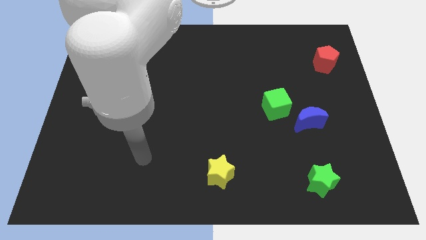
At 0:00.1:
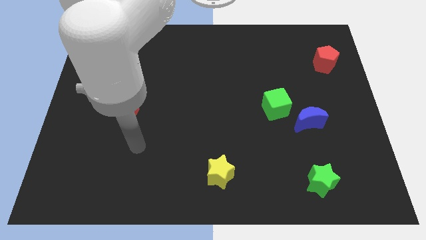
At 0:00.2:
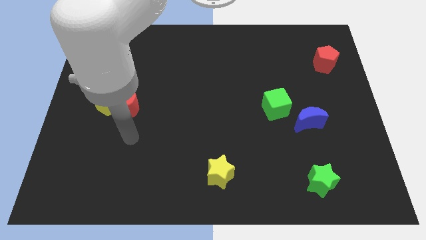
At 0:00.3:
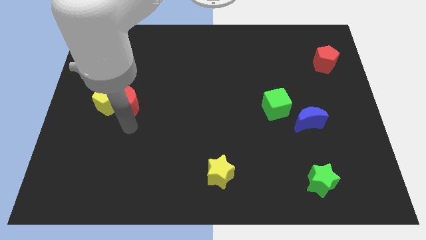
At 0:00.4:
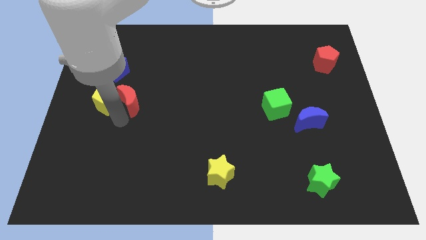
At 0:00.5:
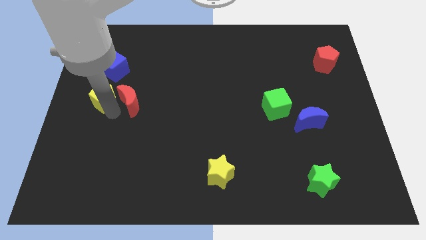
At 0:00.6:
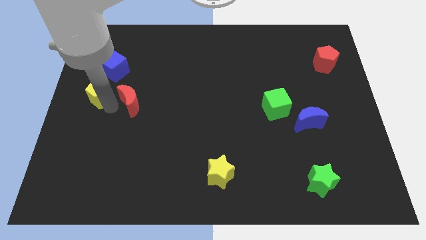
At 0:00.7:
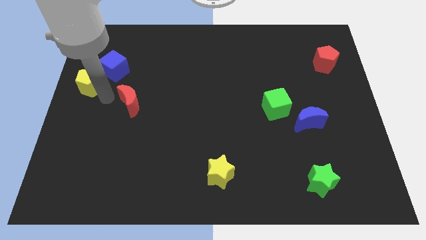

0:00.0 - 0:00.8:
pull the red moon apart from the yellow pentagon

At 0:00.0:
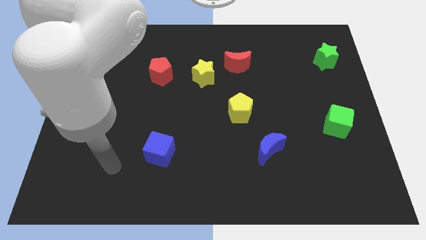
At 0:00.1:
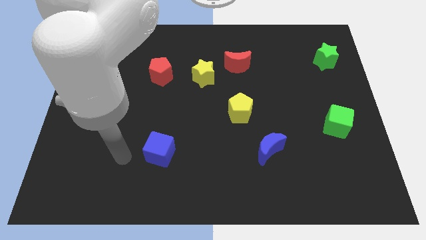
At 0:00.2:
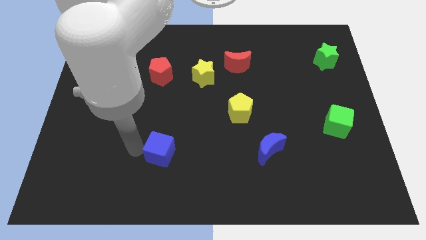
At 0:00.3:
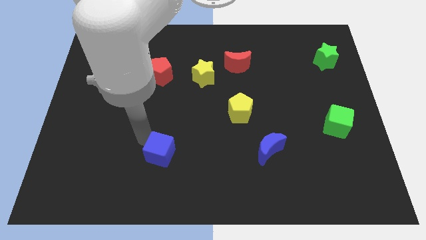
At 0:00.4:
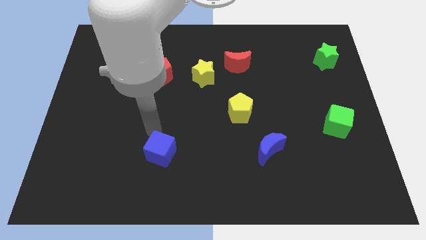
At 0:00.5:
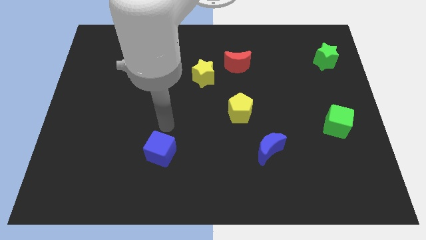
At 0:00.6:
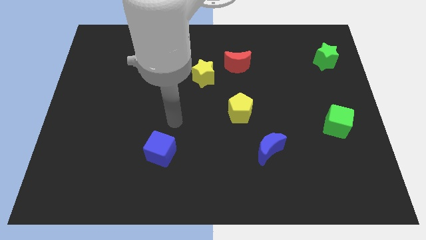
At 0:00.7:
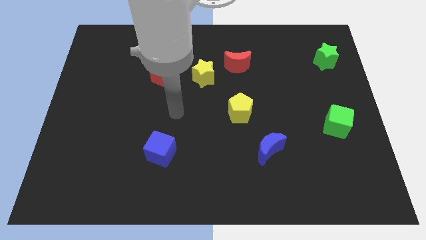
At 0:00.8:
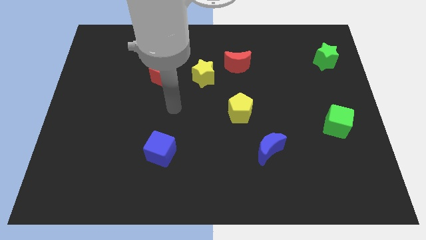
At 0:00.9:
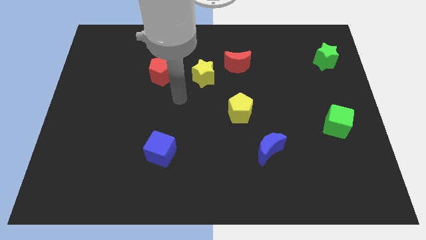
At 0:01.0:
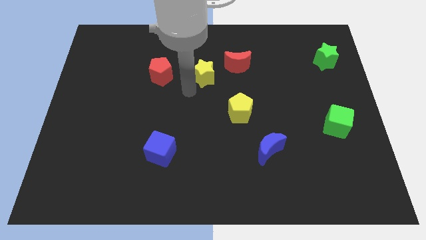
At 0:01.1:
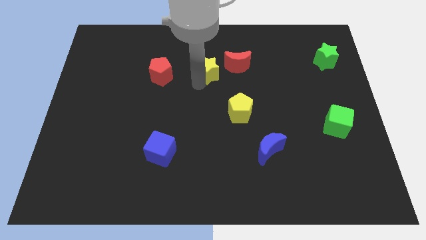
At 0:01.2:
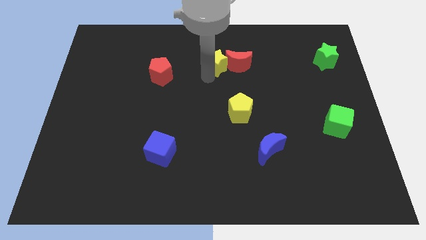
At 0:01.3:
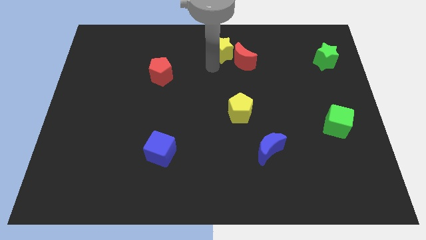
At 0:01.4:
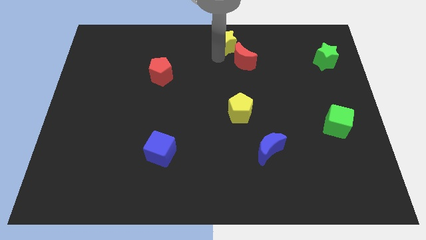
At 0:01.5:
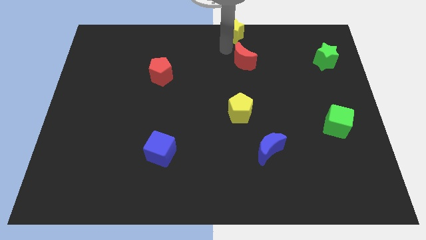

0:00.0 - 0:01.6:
move the red moon away from the yellow star

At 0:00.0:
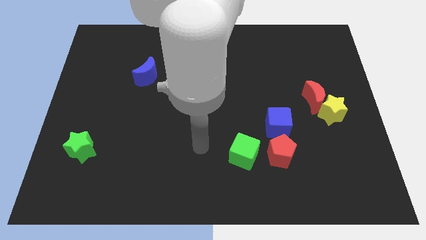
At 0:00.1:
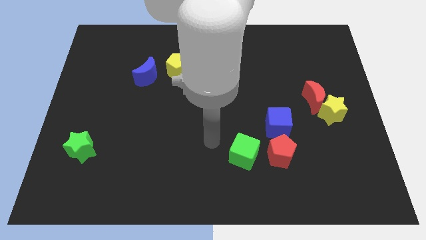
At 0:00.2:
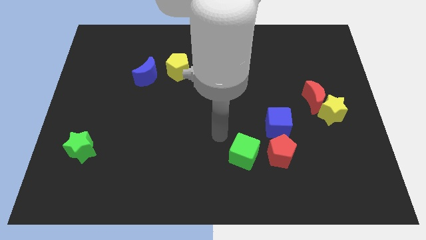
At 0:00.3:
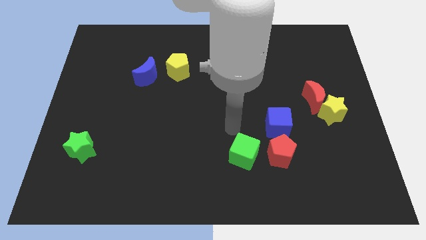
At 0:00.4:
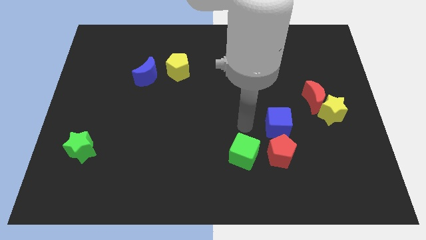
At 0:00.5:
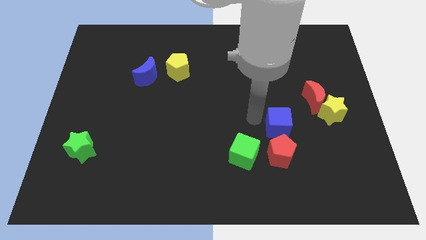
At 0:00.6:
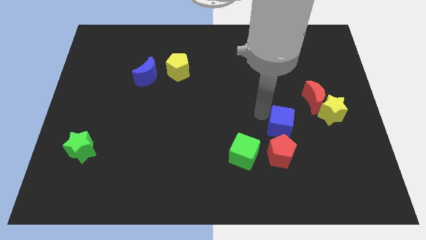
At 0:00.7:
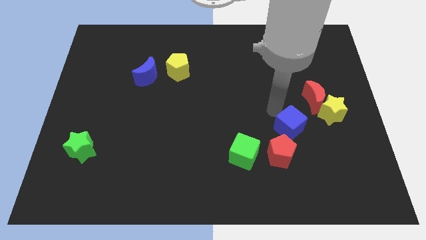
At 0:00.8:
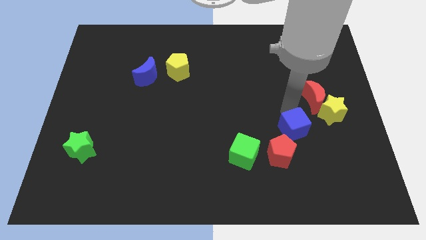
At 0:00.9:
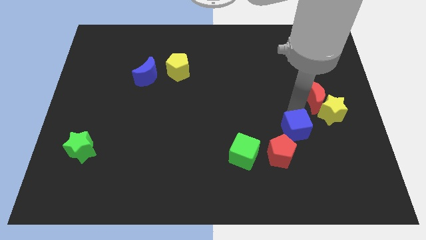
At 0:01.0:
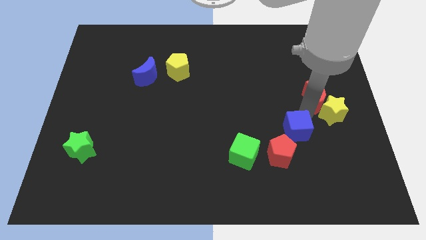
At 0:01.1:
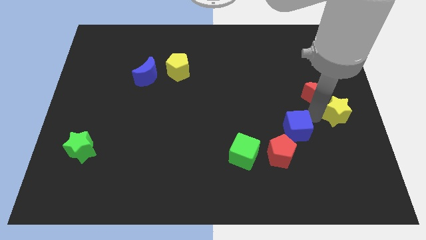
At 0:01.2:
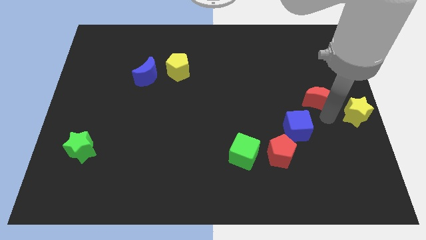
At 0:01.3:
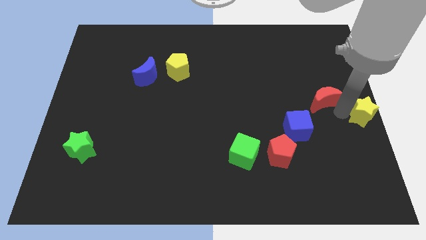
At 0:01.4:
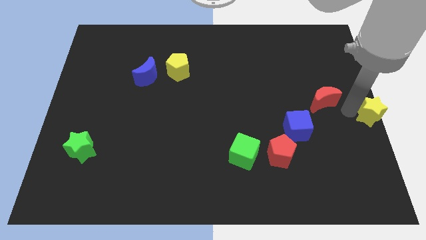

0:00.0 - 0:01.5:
separate the red moon from the yellow star

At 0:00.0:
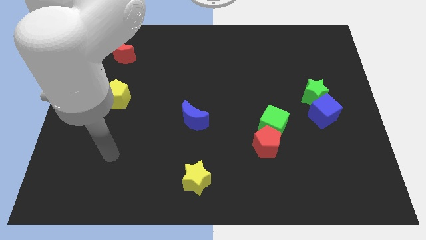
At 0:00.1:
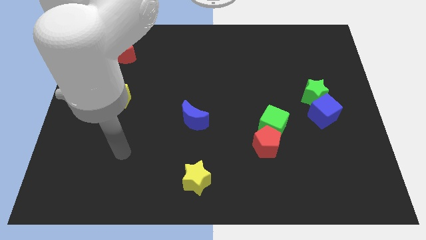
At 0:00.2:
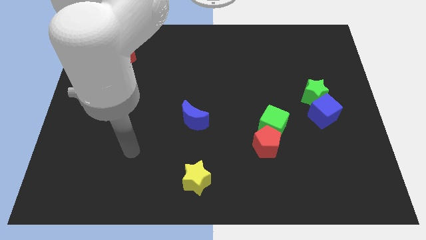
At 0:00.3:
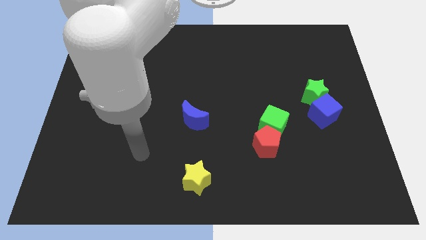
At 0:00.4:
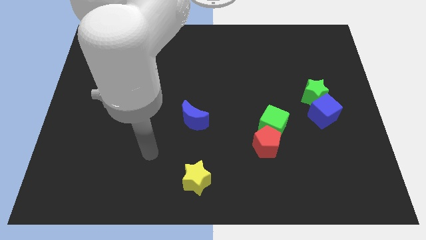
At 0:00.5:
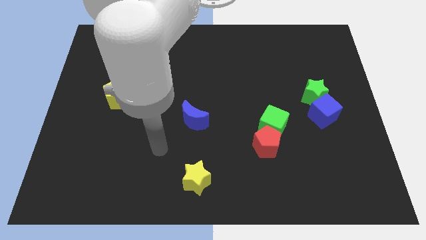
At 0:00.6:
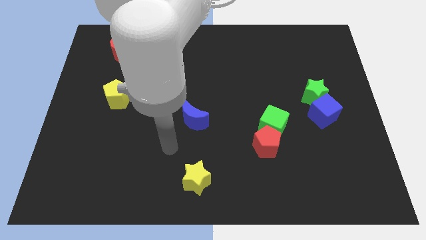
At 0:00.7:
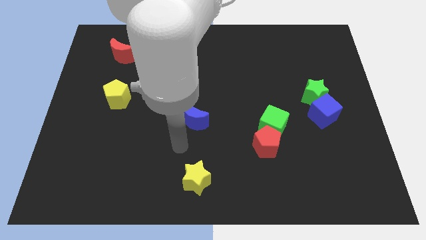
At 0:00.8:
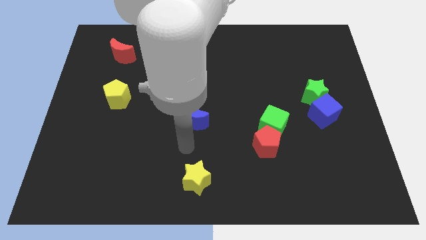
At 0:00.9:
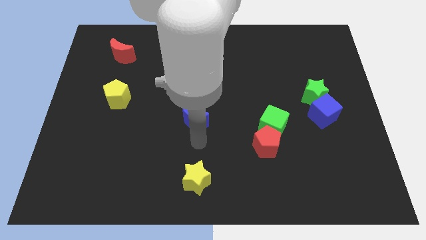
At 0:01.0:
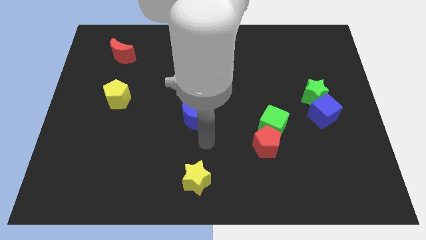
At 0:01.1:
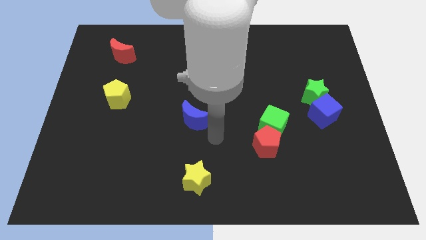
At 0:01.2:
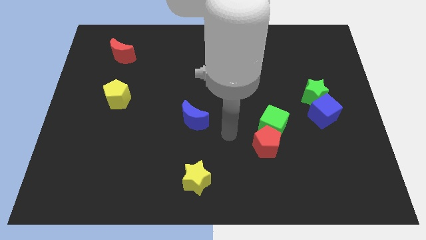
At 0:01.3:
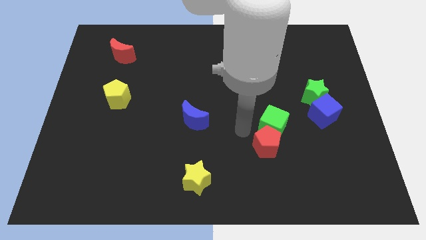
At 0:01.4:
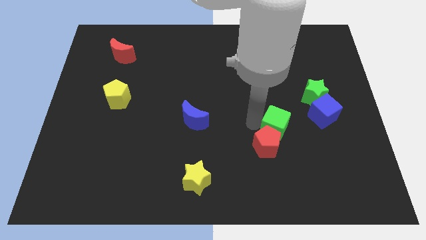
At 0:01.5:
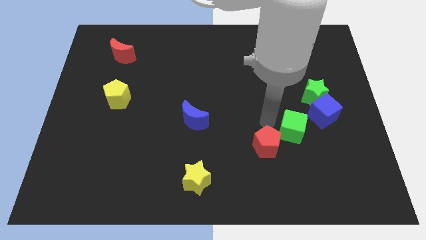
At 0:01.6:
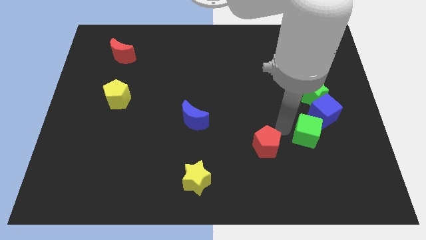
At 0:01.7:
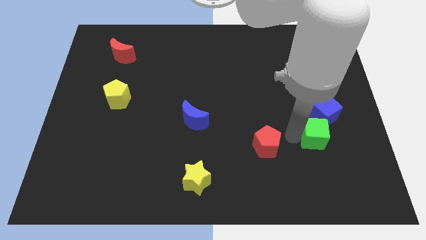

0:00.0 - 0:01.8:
separate the red pentagon from the green cube

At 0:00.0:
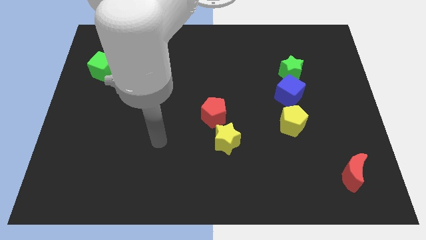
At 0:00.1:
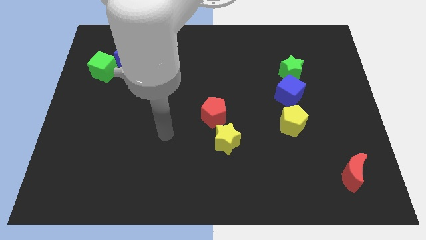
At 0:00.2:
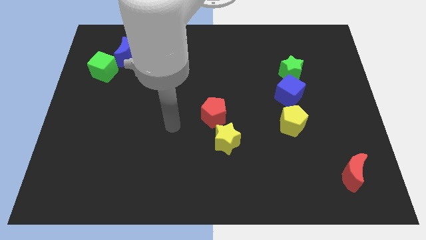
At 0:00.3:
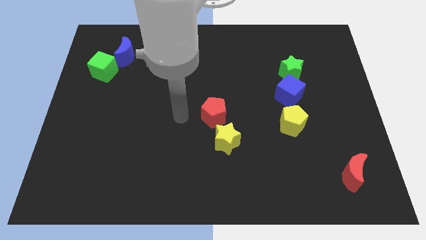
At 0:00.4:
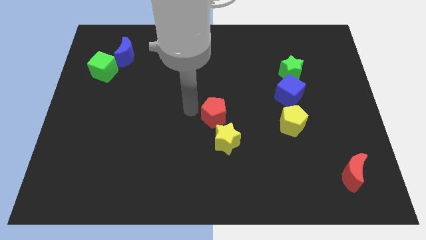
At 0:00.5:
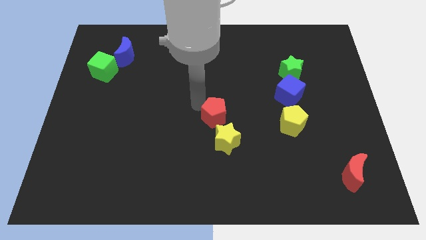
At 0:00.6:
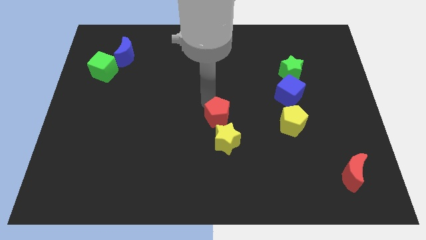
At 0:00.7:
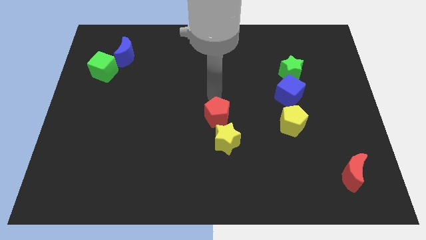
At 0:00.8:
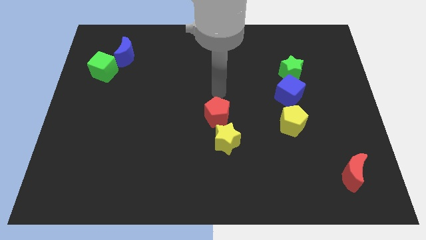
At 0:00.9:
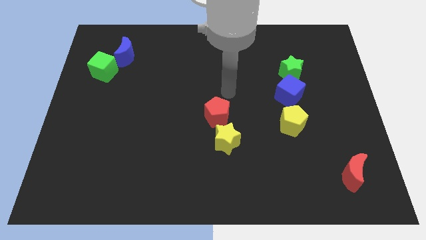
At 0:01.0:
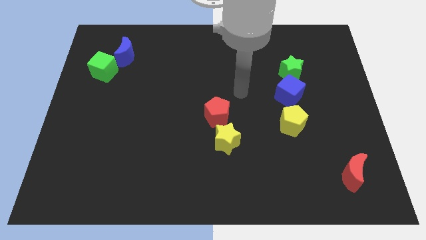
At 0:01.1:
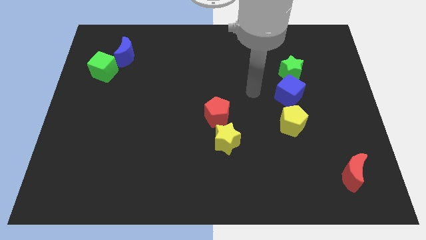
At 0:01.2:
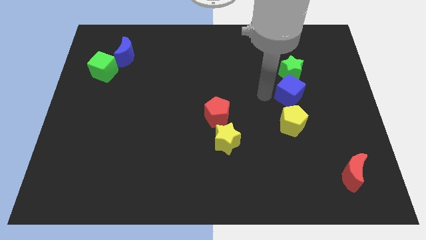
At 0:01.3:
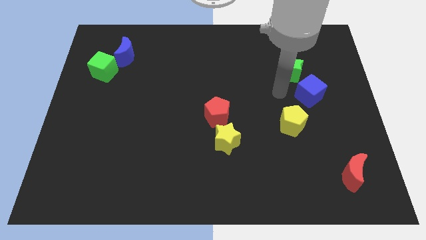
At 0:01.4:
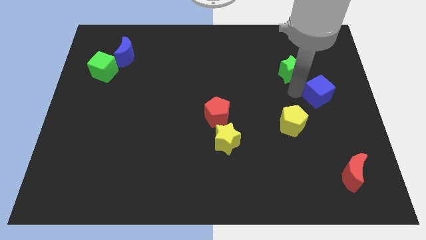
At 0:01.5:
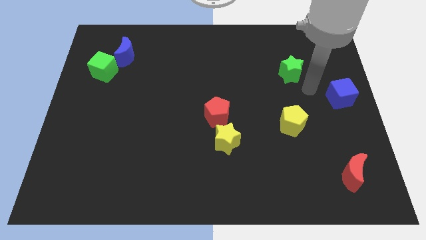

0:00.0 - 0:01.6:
pull the green star apart from the blue cube

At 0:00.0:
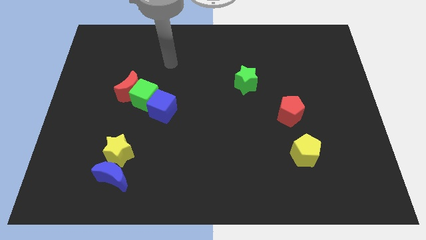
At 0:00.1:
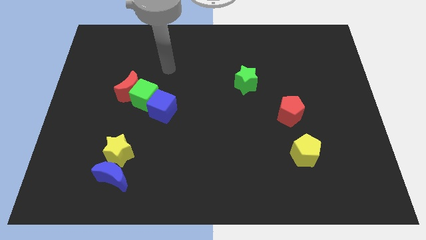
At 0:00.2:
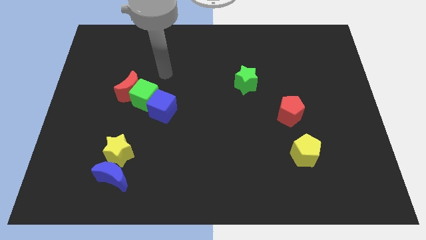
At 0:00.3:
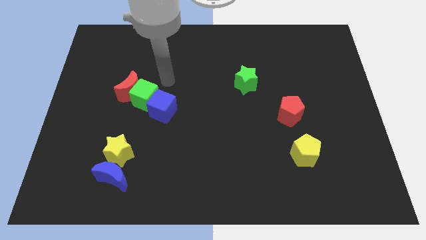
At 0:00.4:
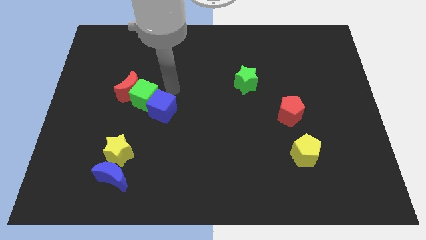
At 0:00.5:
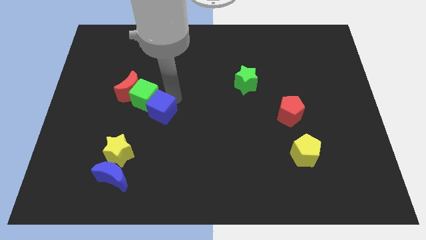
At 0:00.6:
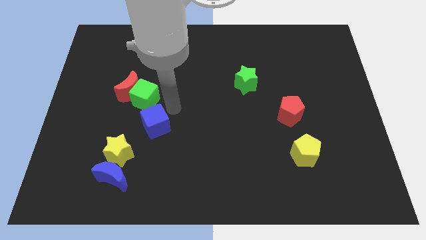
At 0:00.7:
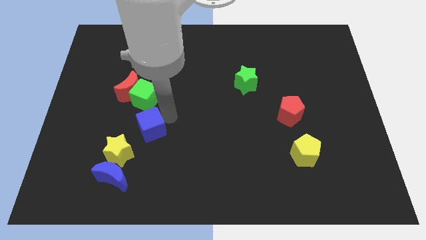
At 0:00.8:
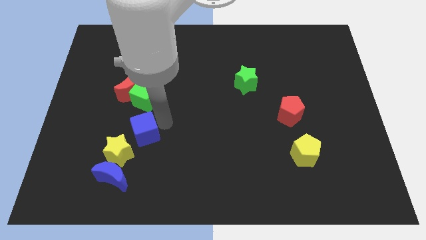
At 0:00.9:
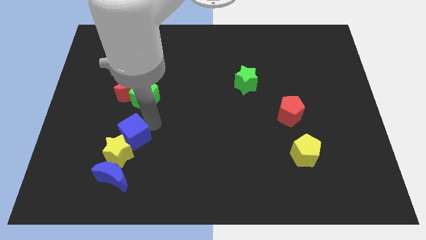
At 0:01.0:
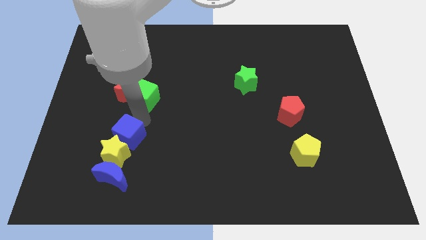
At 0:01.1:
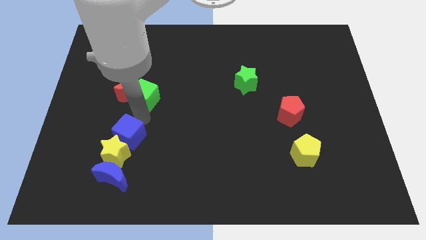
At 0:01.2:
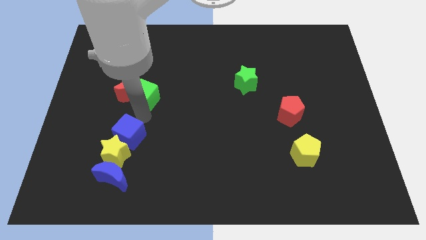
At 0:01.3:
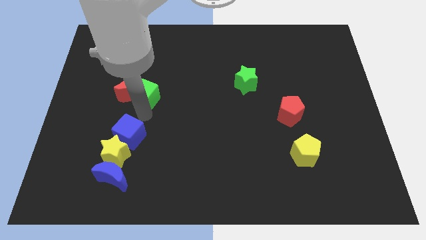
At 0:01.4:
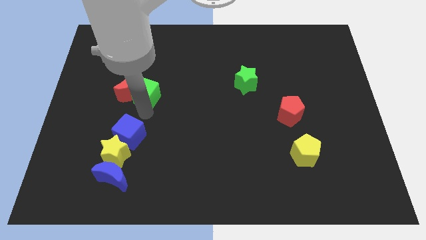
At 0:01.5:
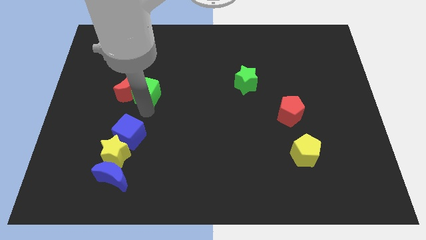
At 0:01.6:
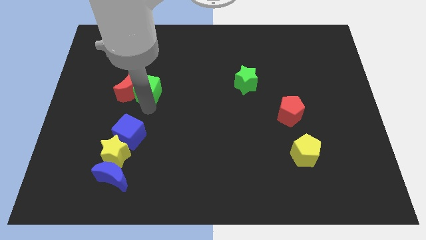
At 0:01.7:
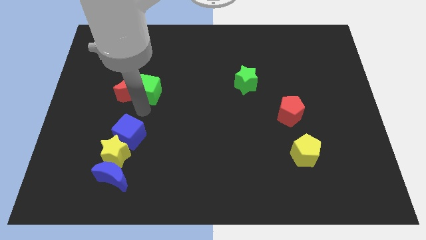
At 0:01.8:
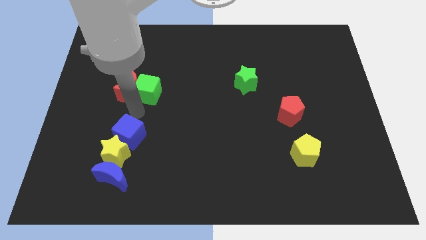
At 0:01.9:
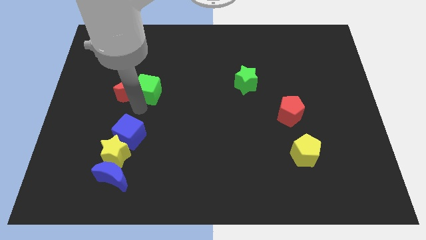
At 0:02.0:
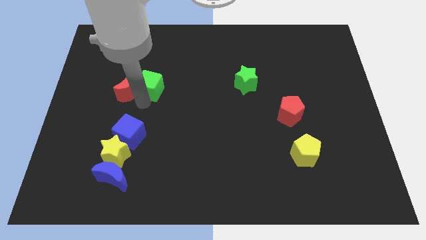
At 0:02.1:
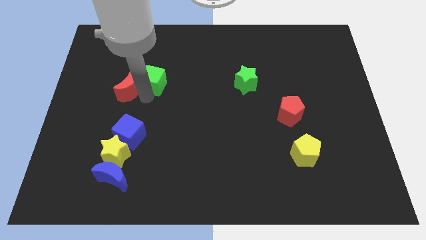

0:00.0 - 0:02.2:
pull the green cube apart from the red moon and blue cube
